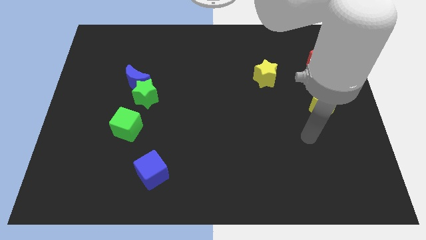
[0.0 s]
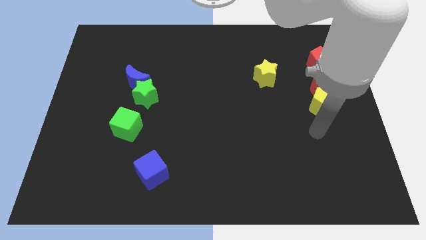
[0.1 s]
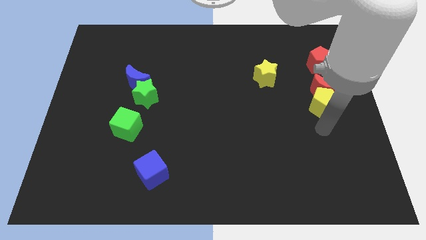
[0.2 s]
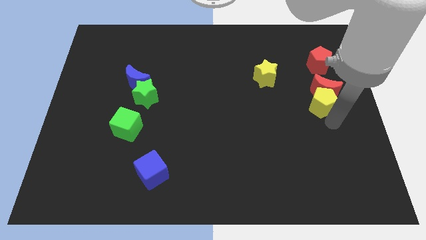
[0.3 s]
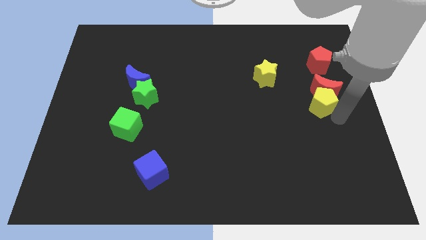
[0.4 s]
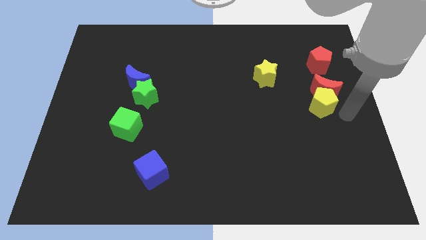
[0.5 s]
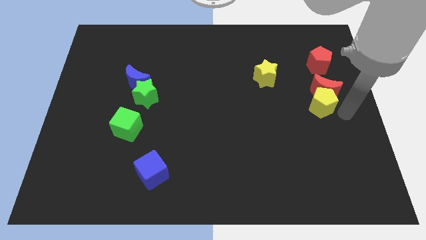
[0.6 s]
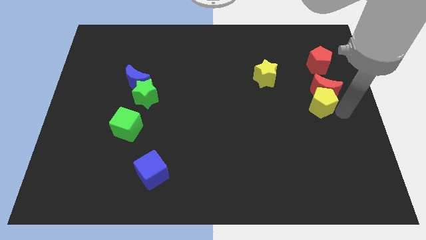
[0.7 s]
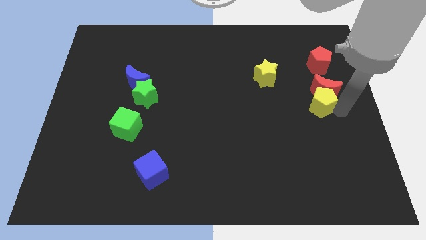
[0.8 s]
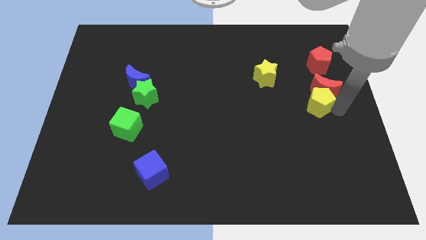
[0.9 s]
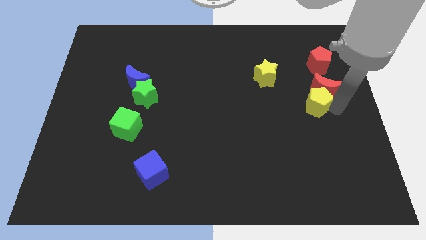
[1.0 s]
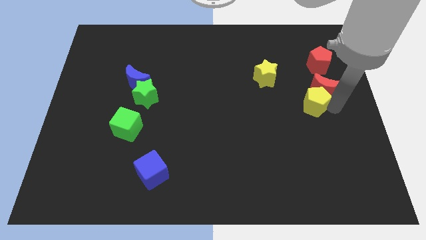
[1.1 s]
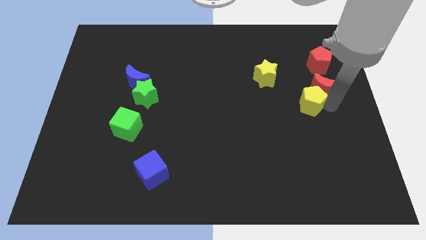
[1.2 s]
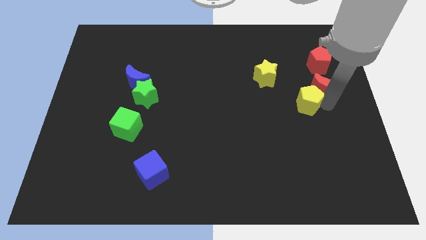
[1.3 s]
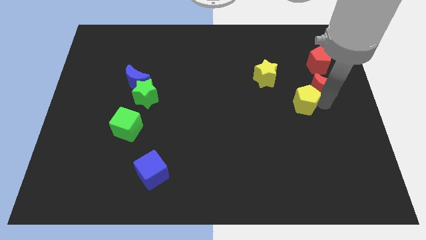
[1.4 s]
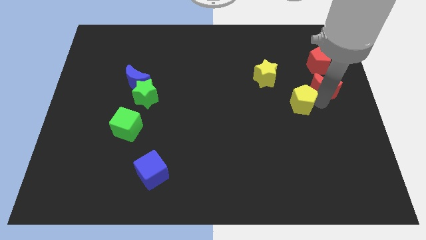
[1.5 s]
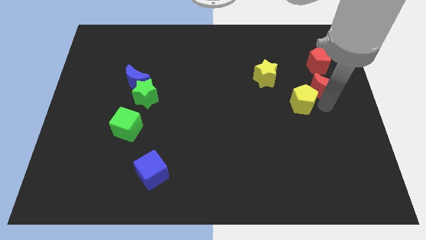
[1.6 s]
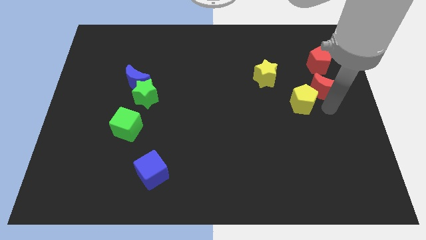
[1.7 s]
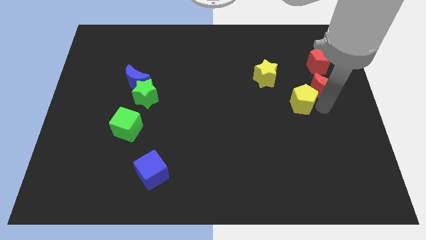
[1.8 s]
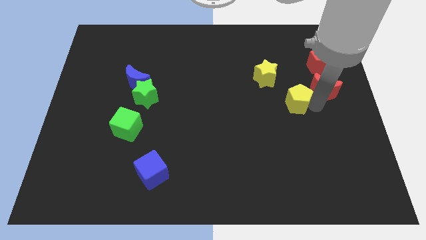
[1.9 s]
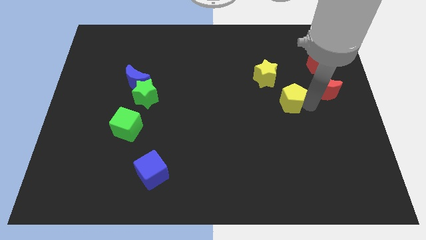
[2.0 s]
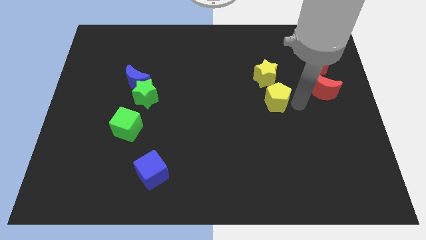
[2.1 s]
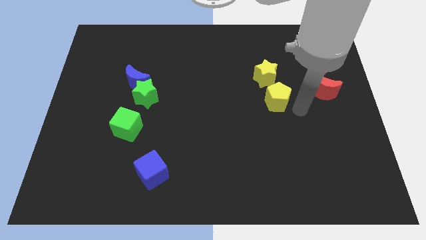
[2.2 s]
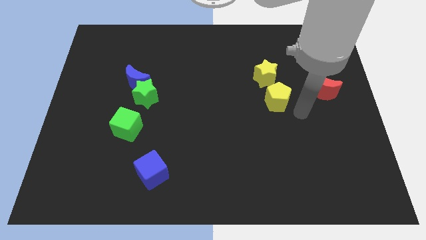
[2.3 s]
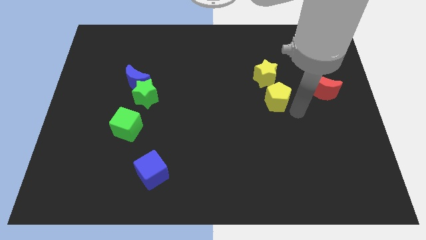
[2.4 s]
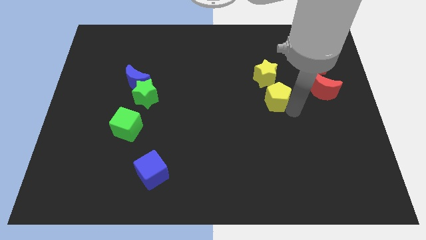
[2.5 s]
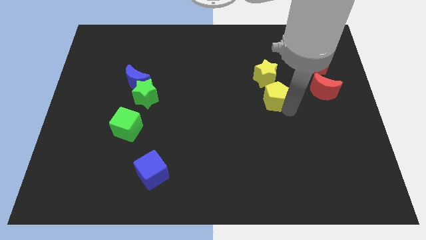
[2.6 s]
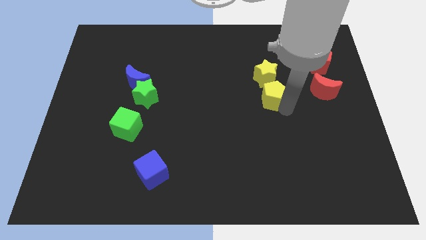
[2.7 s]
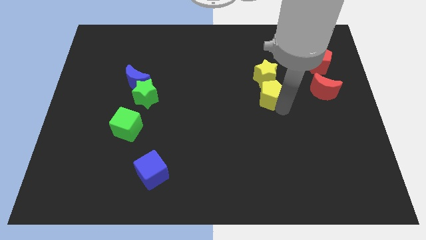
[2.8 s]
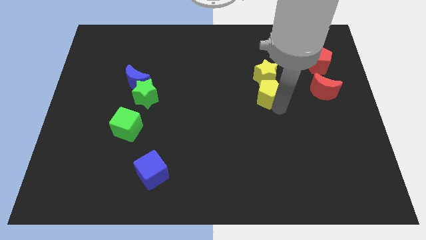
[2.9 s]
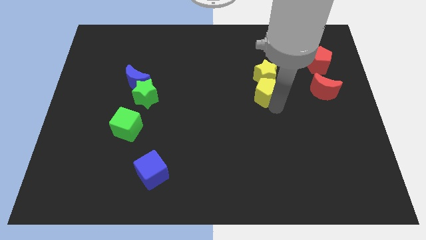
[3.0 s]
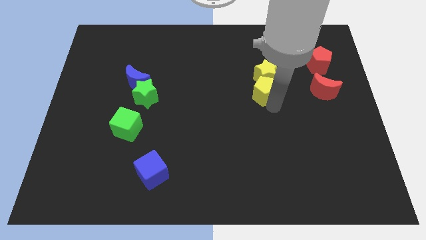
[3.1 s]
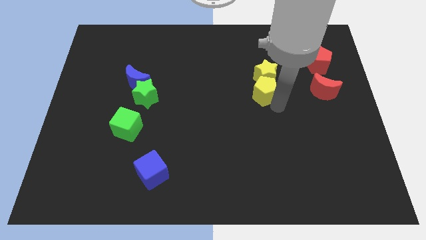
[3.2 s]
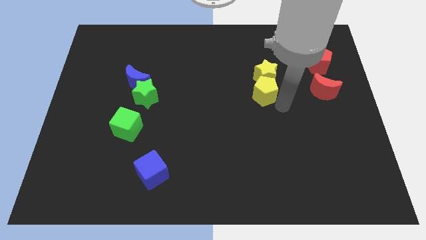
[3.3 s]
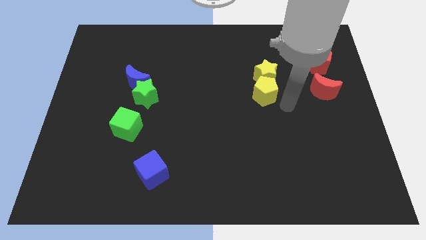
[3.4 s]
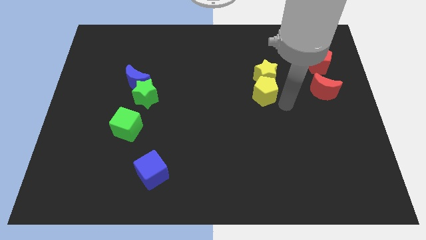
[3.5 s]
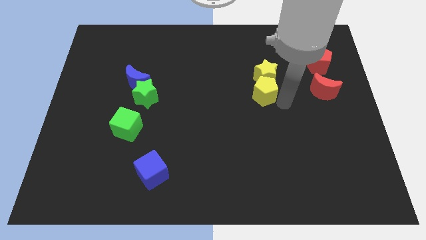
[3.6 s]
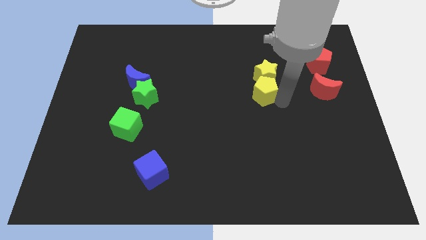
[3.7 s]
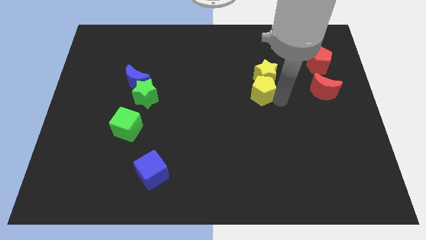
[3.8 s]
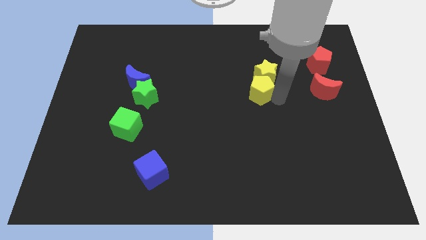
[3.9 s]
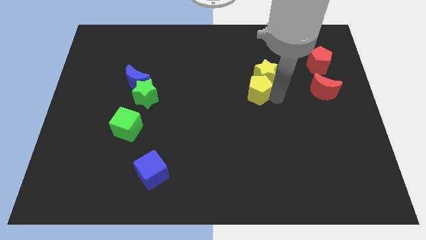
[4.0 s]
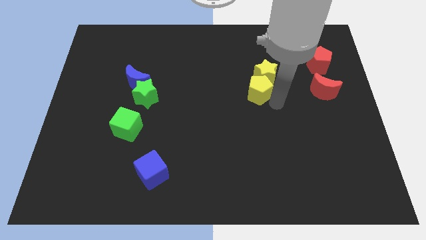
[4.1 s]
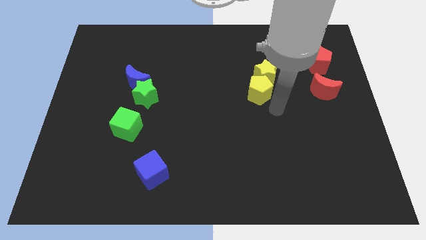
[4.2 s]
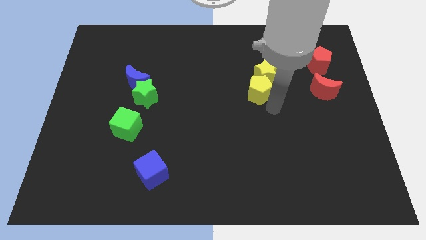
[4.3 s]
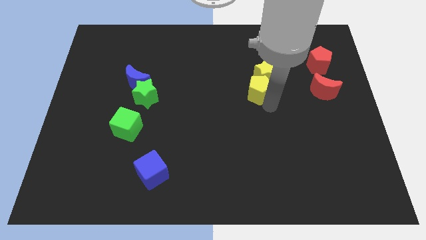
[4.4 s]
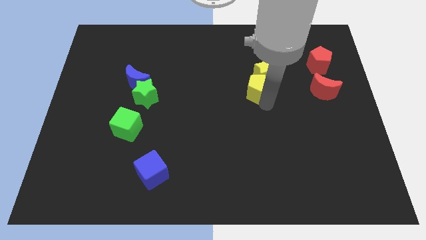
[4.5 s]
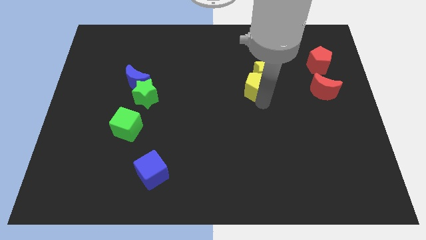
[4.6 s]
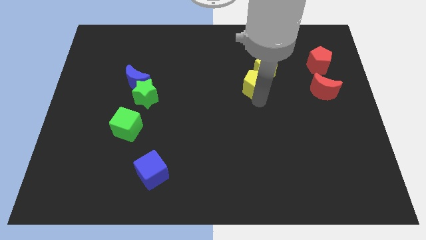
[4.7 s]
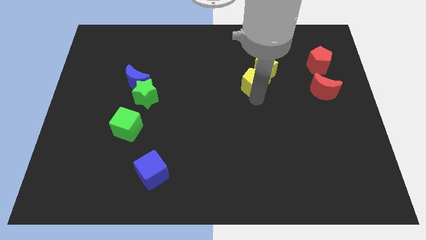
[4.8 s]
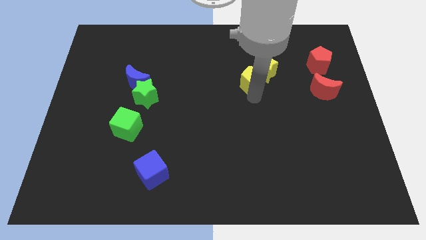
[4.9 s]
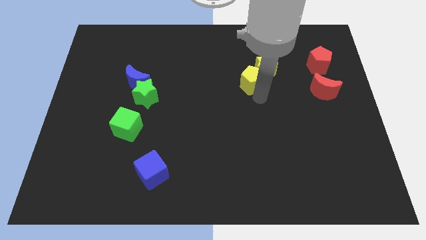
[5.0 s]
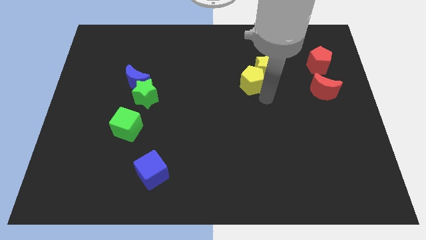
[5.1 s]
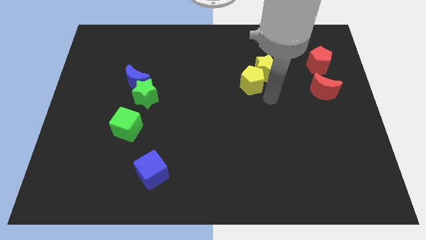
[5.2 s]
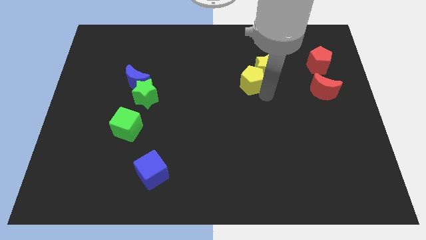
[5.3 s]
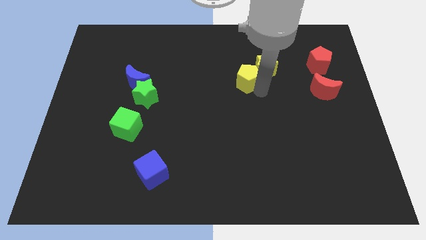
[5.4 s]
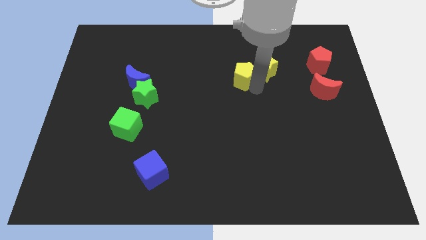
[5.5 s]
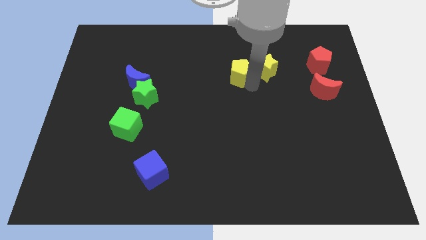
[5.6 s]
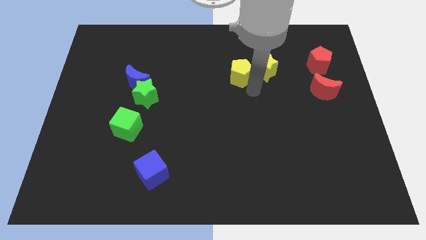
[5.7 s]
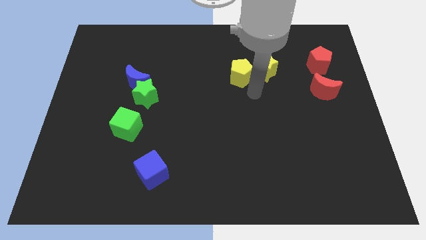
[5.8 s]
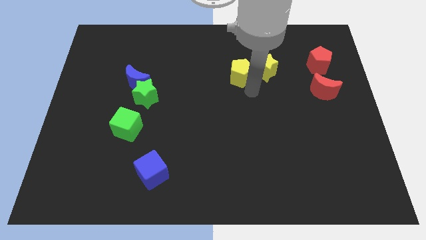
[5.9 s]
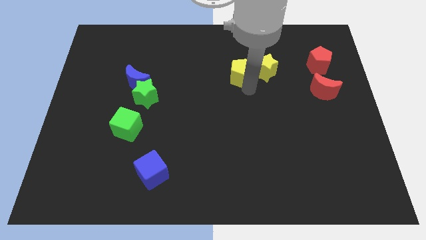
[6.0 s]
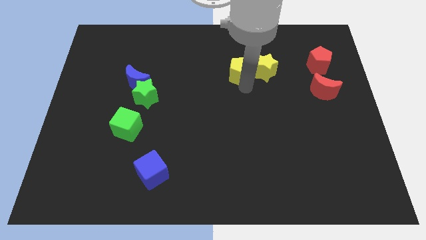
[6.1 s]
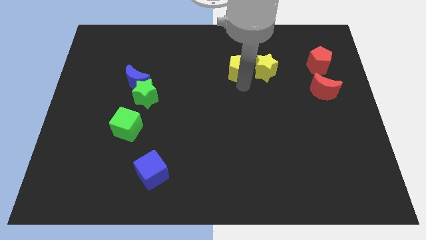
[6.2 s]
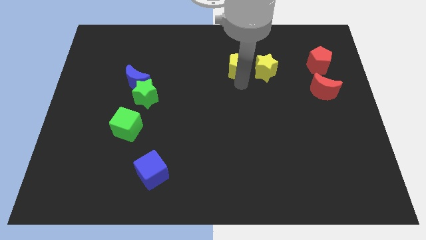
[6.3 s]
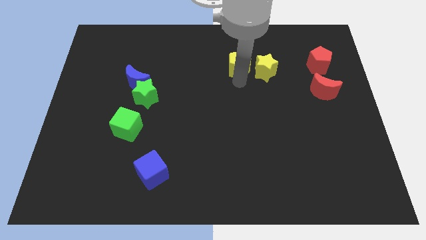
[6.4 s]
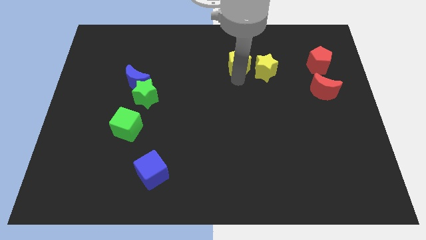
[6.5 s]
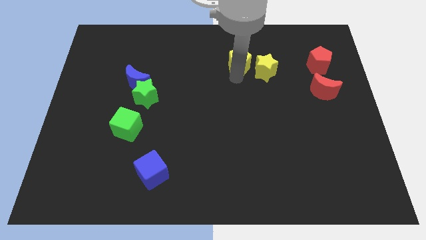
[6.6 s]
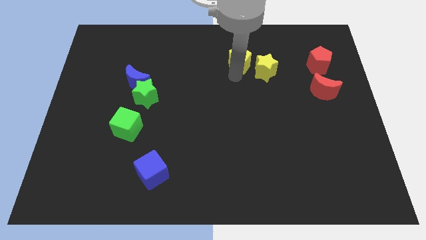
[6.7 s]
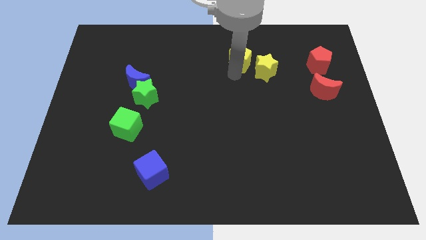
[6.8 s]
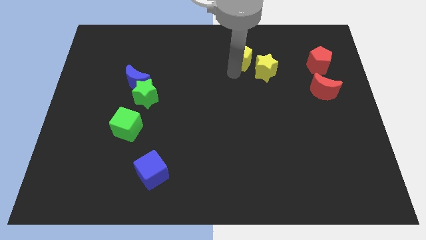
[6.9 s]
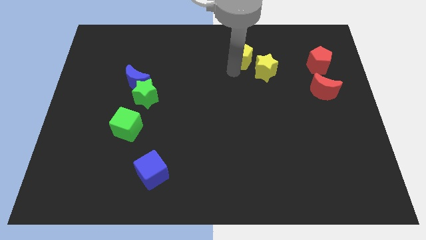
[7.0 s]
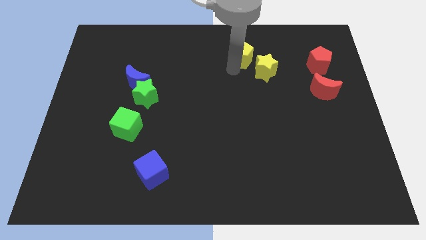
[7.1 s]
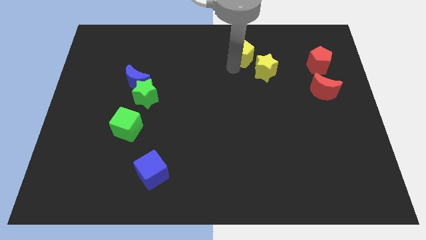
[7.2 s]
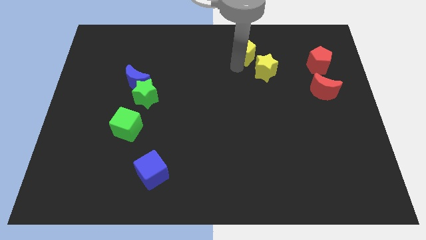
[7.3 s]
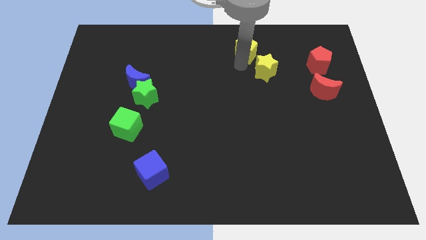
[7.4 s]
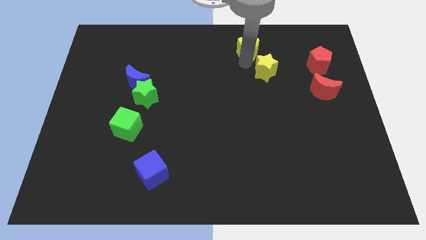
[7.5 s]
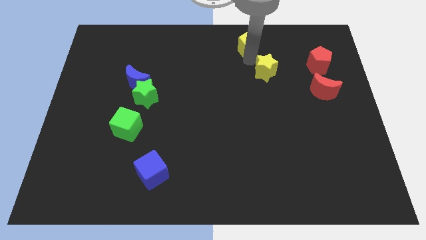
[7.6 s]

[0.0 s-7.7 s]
move the yellow pentagon to the top
